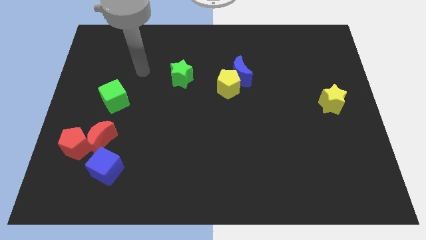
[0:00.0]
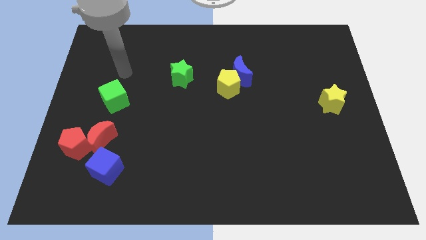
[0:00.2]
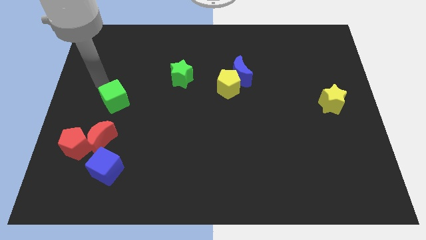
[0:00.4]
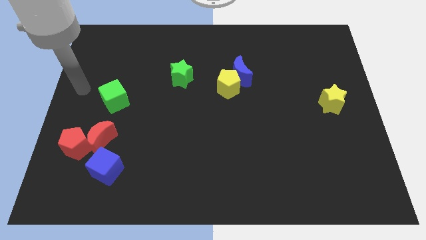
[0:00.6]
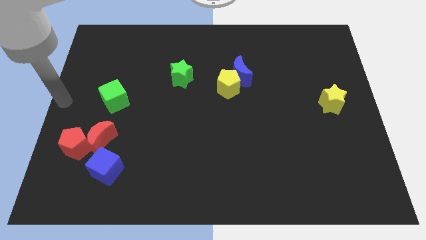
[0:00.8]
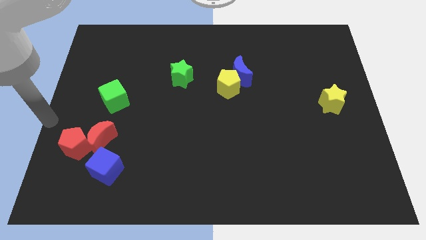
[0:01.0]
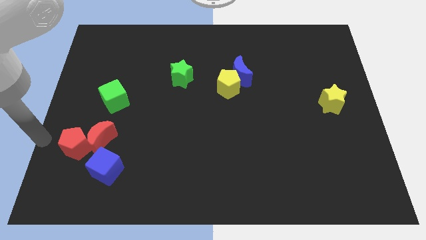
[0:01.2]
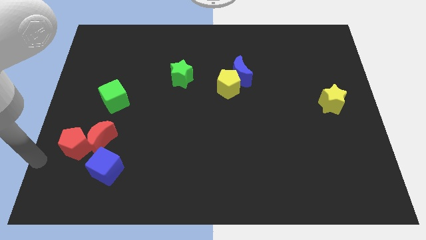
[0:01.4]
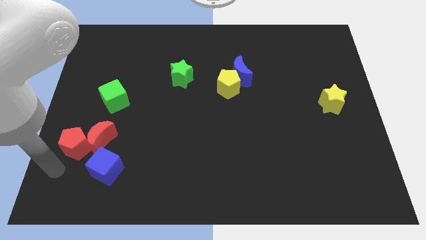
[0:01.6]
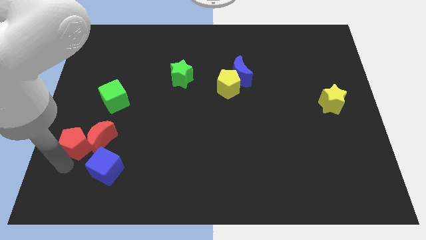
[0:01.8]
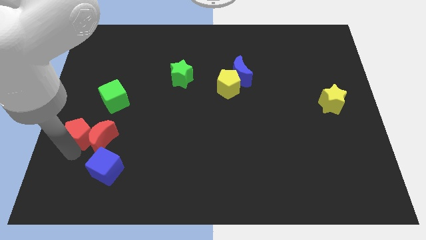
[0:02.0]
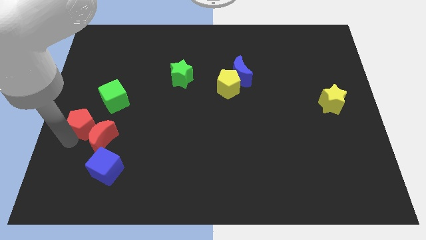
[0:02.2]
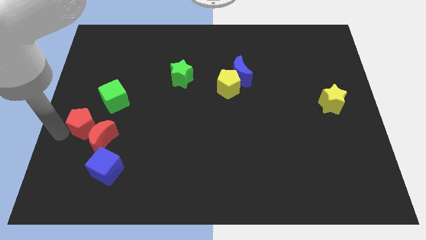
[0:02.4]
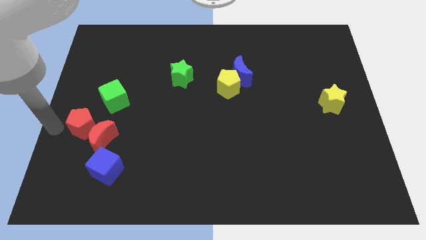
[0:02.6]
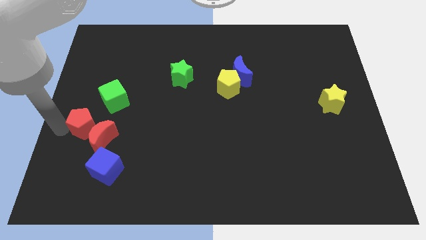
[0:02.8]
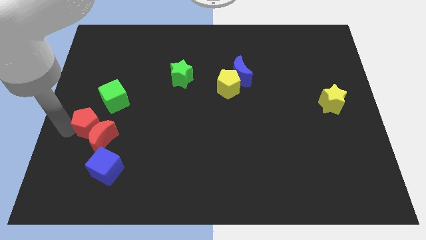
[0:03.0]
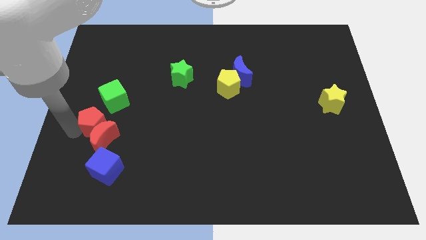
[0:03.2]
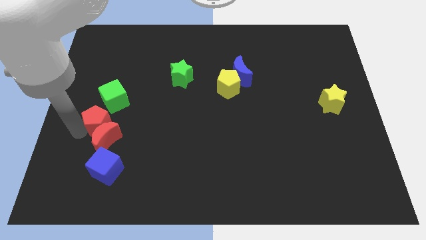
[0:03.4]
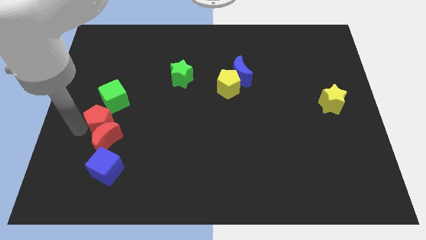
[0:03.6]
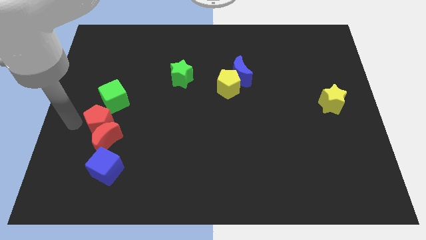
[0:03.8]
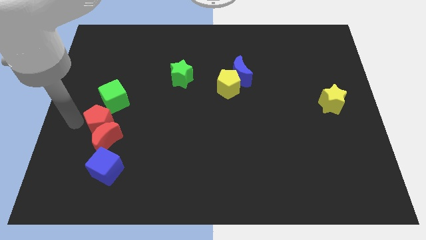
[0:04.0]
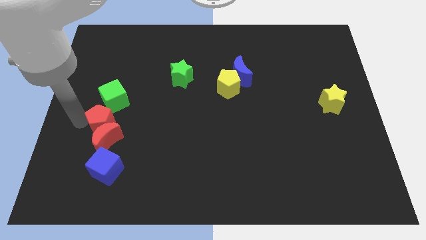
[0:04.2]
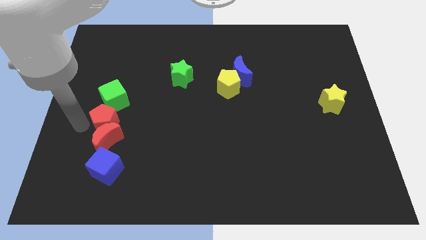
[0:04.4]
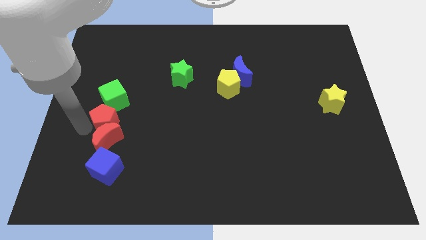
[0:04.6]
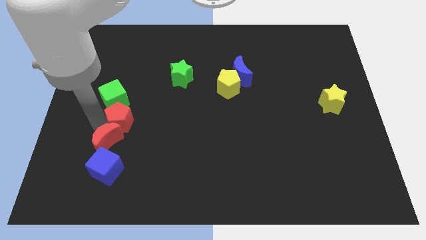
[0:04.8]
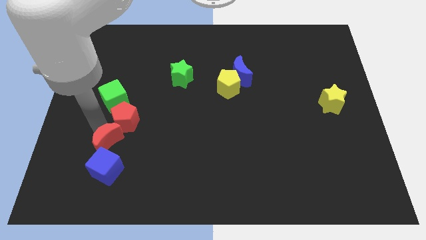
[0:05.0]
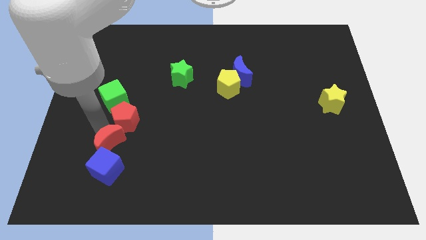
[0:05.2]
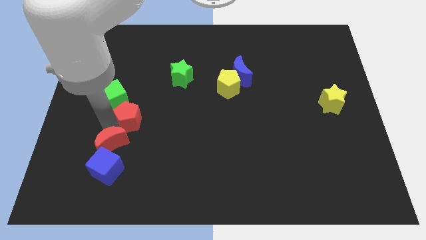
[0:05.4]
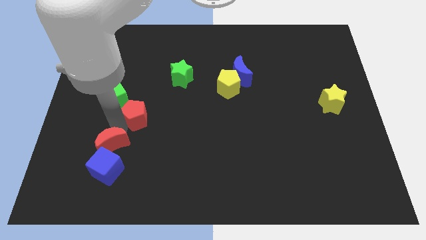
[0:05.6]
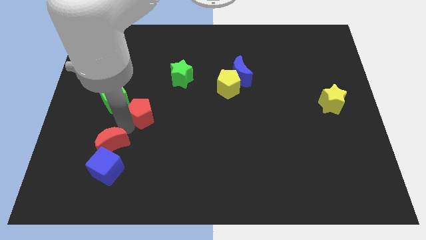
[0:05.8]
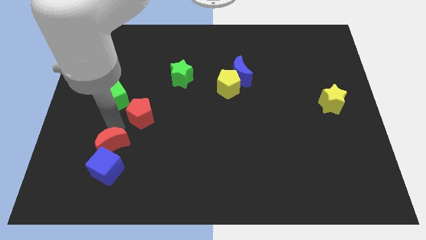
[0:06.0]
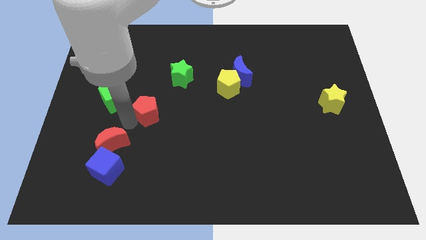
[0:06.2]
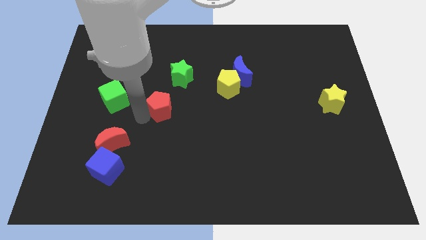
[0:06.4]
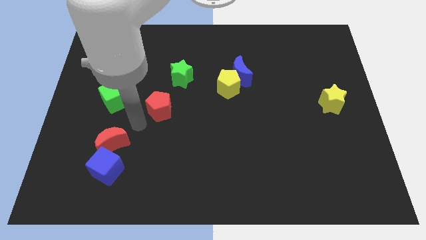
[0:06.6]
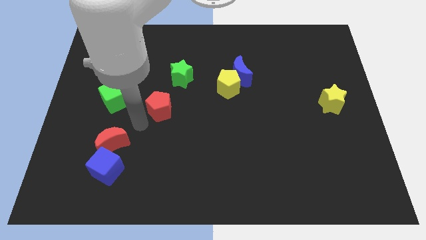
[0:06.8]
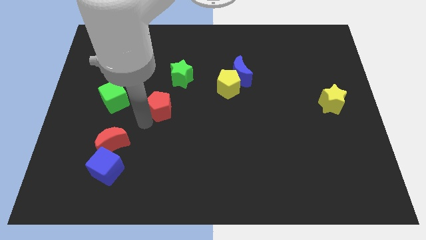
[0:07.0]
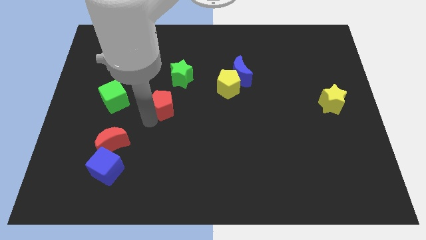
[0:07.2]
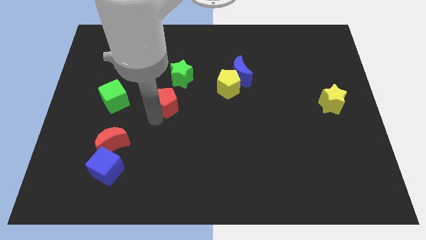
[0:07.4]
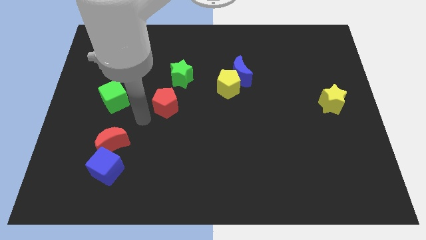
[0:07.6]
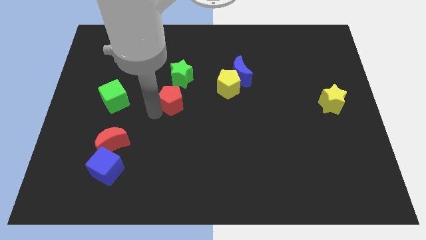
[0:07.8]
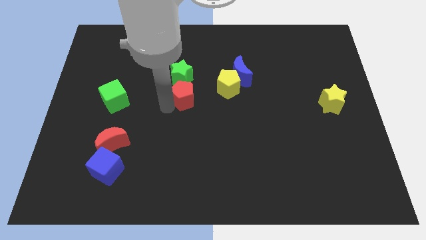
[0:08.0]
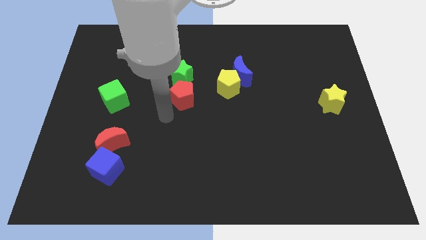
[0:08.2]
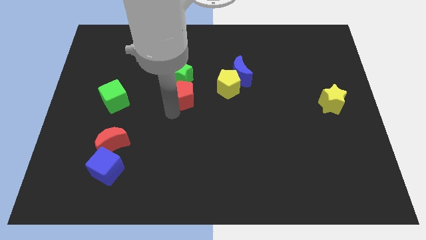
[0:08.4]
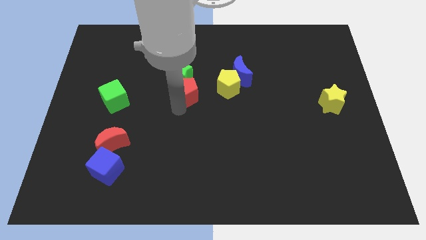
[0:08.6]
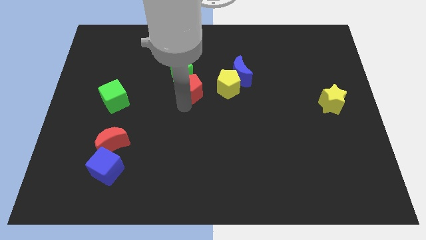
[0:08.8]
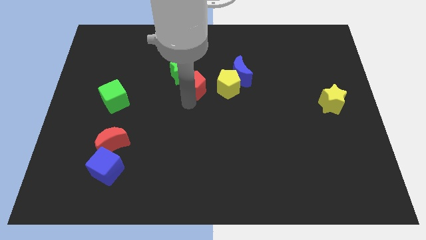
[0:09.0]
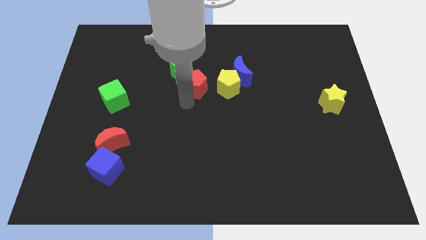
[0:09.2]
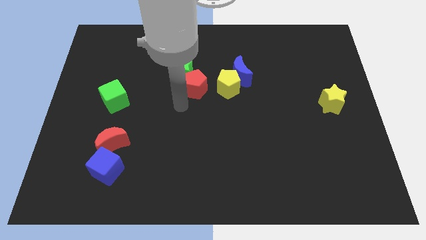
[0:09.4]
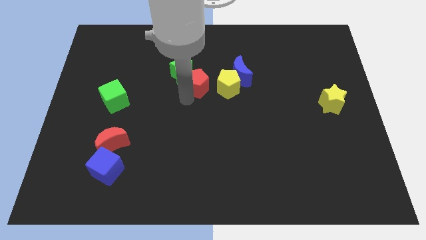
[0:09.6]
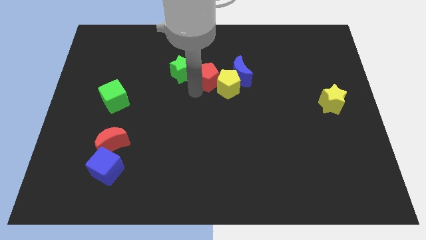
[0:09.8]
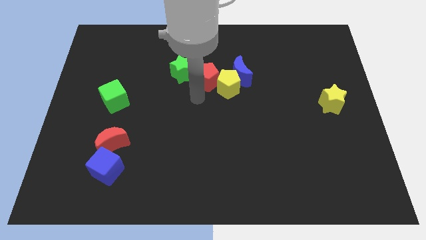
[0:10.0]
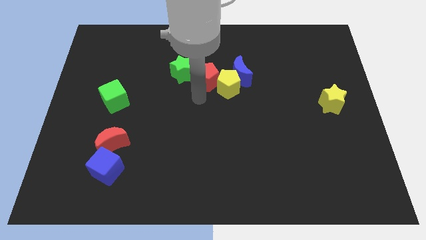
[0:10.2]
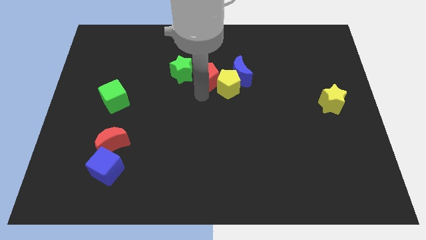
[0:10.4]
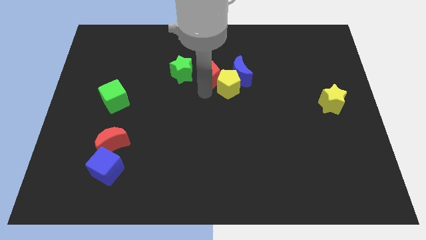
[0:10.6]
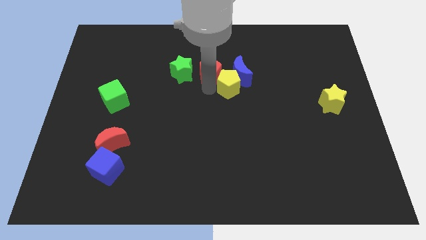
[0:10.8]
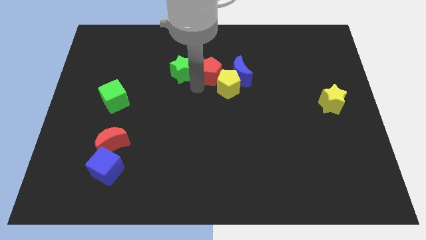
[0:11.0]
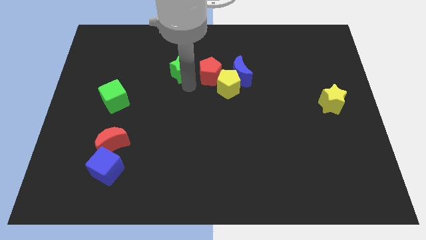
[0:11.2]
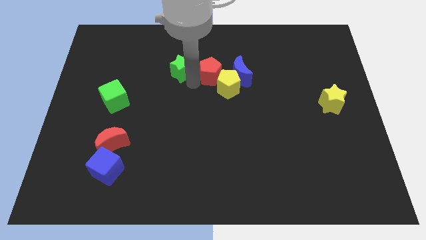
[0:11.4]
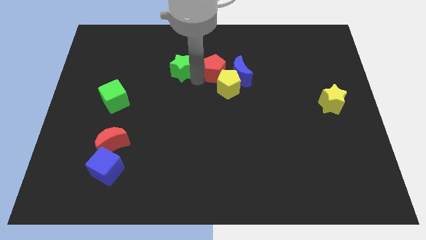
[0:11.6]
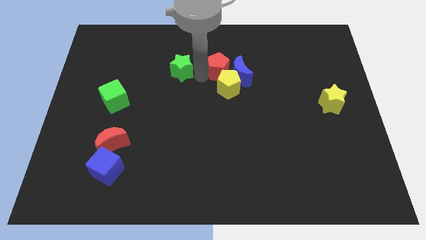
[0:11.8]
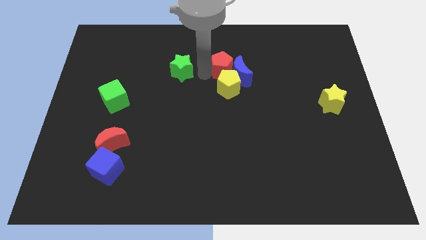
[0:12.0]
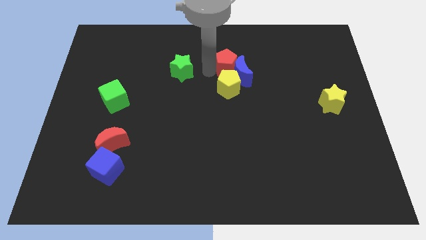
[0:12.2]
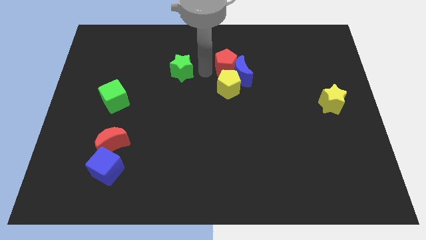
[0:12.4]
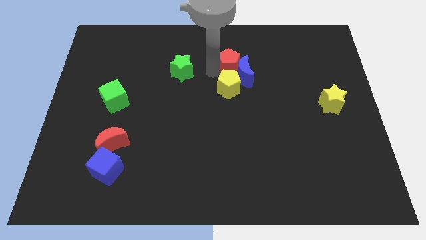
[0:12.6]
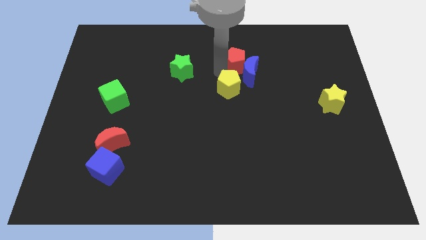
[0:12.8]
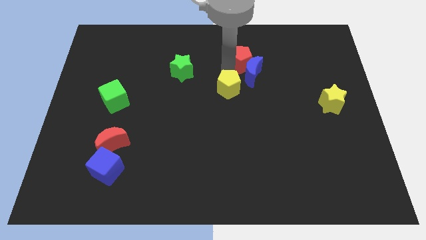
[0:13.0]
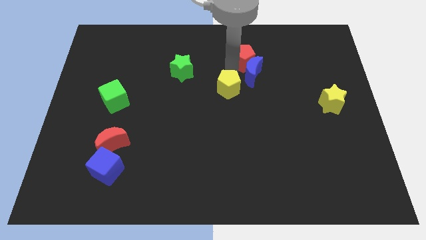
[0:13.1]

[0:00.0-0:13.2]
put the red pentagon to the top right side of the blue moon

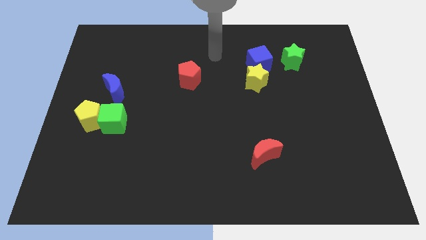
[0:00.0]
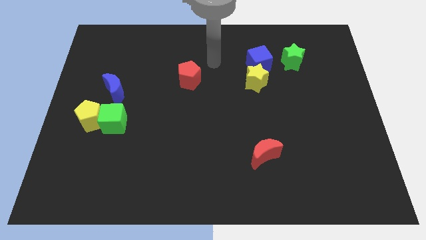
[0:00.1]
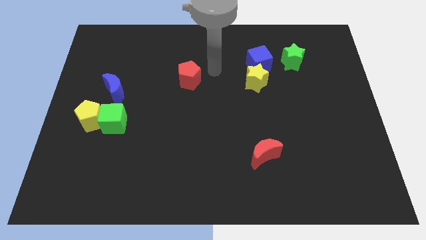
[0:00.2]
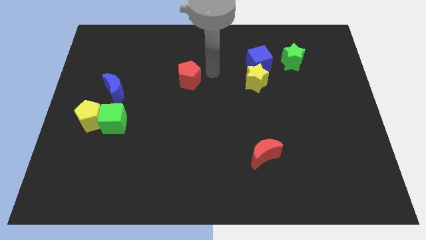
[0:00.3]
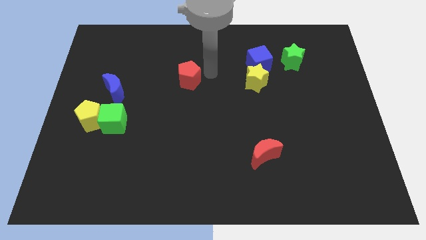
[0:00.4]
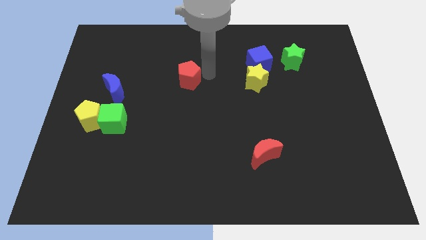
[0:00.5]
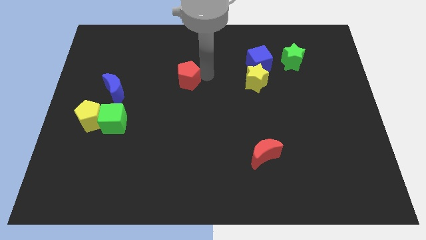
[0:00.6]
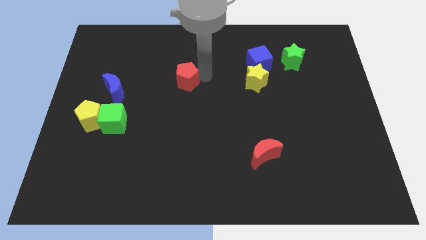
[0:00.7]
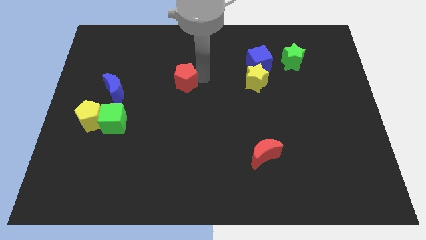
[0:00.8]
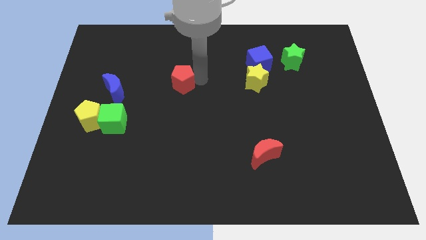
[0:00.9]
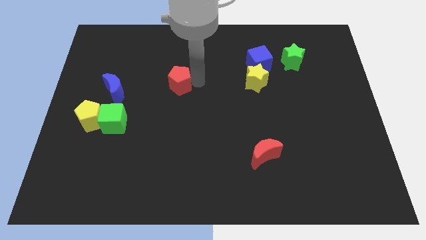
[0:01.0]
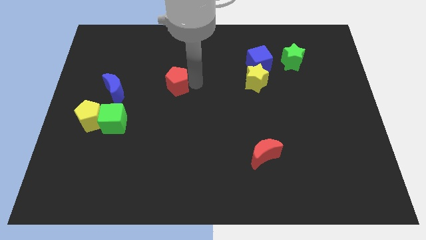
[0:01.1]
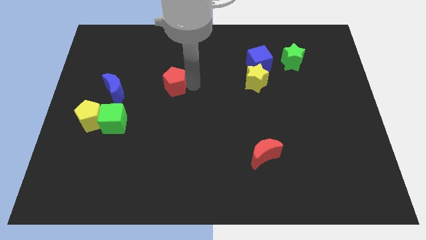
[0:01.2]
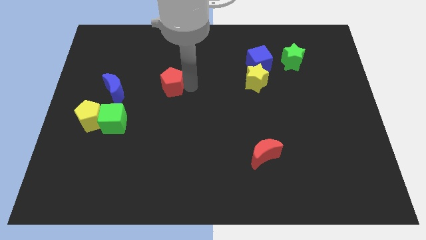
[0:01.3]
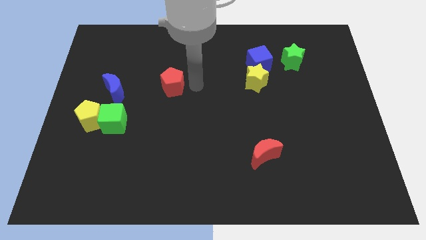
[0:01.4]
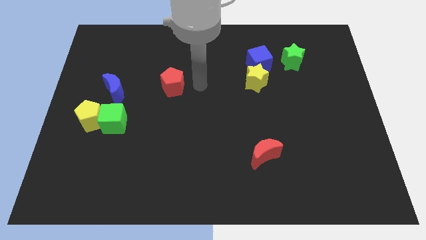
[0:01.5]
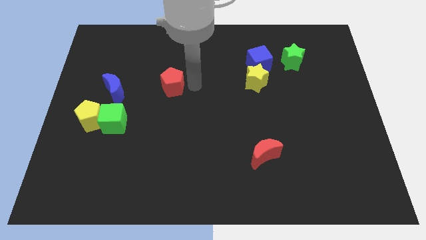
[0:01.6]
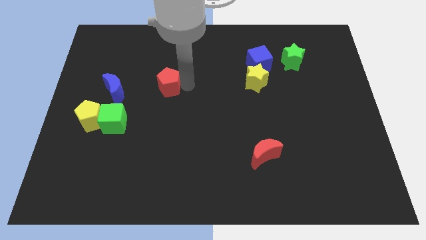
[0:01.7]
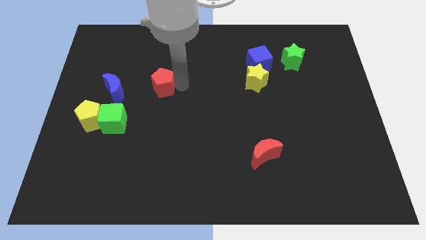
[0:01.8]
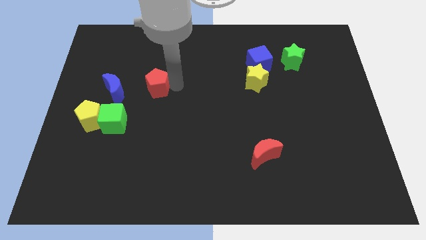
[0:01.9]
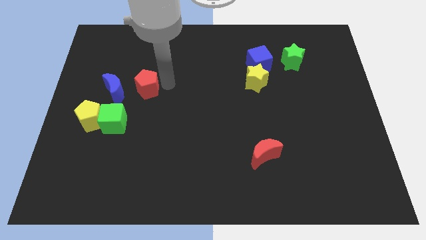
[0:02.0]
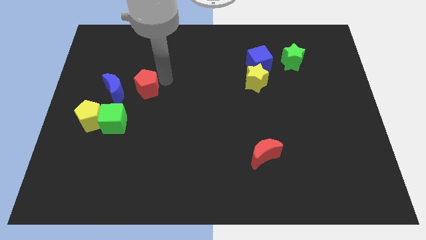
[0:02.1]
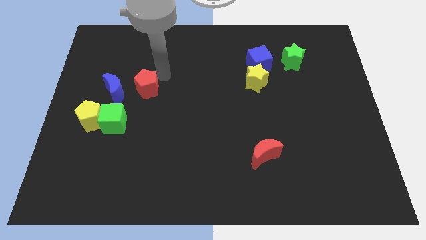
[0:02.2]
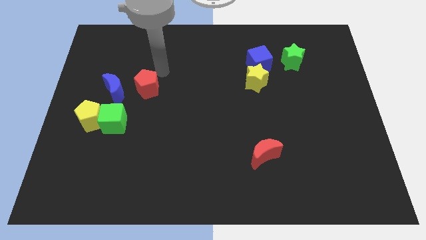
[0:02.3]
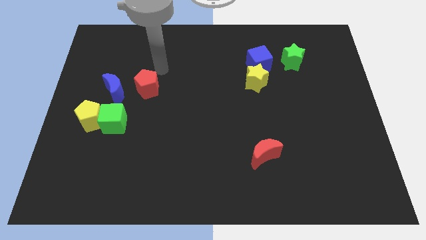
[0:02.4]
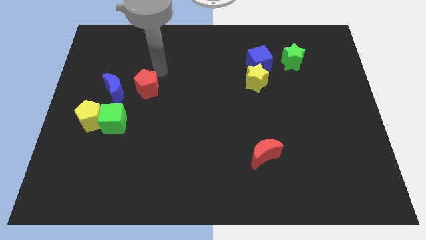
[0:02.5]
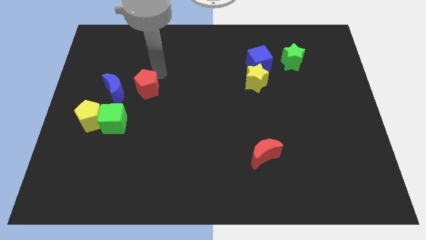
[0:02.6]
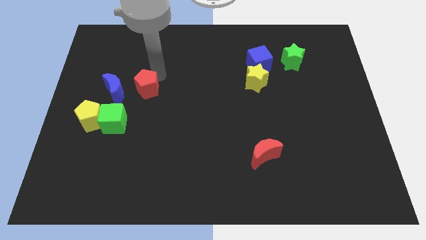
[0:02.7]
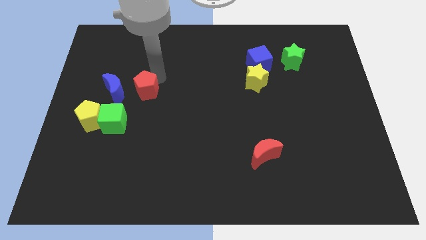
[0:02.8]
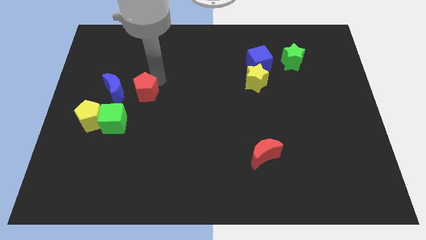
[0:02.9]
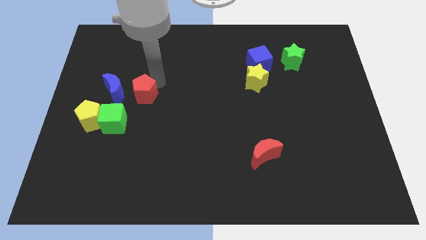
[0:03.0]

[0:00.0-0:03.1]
move the red pentagon diagonally down and to the right of the blue moon
